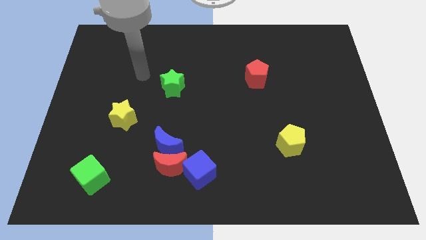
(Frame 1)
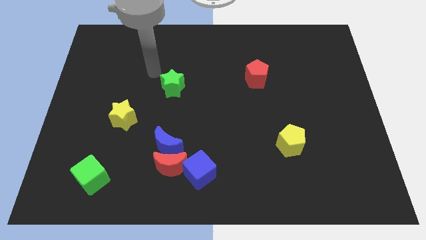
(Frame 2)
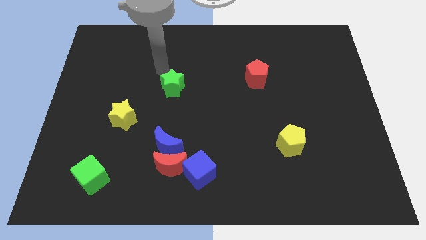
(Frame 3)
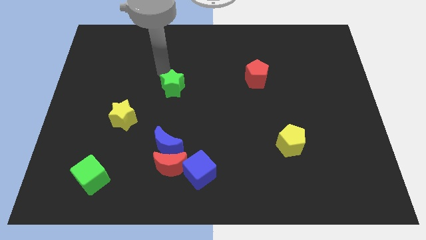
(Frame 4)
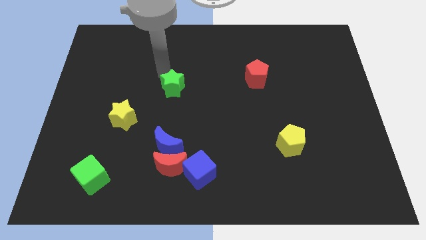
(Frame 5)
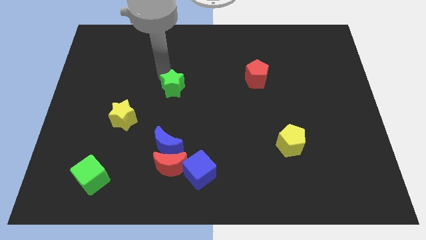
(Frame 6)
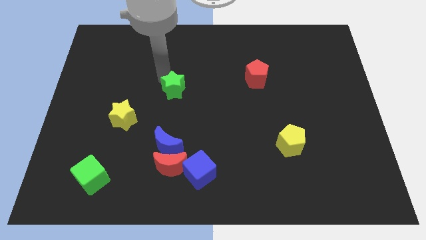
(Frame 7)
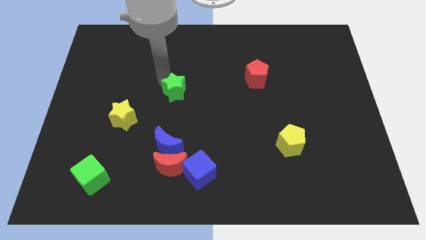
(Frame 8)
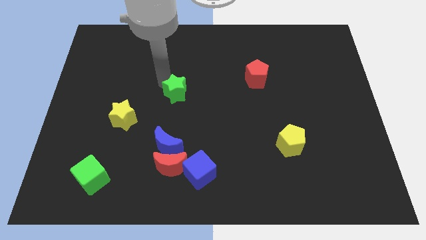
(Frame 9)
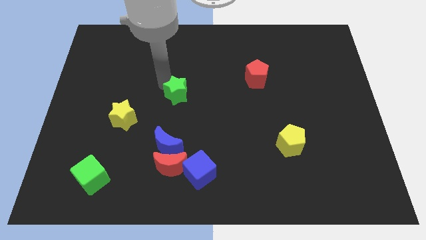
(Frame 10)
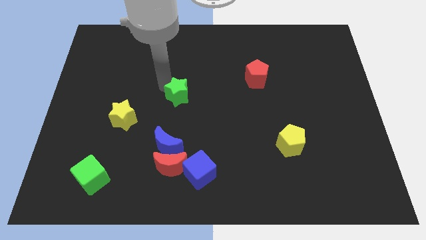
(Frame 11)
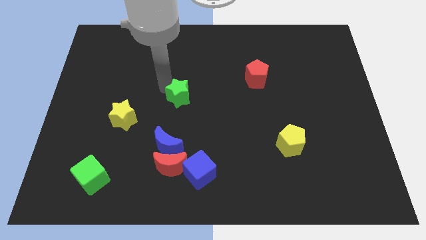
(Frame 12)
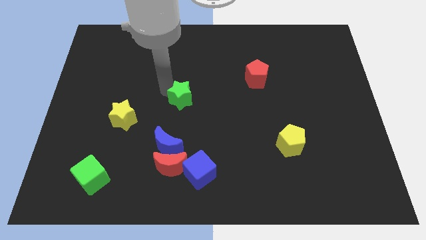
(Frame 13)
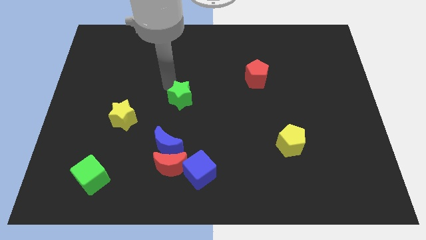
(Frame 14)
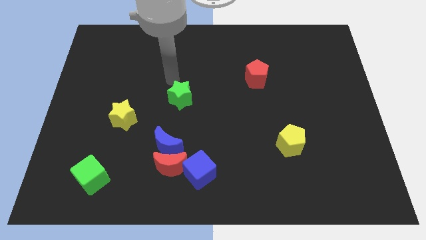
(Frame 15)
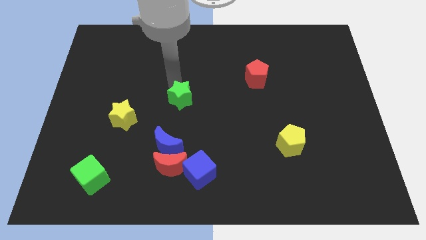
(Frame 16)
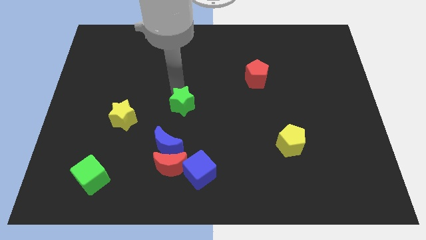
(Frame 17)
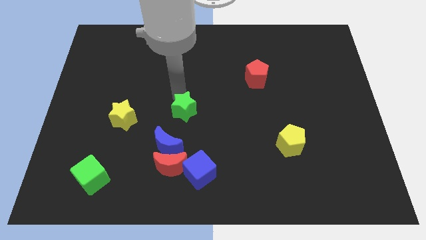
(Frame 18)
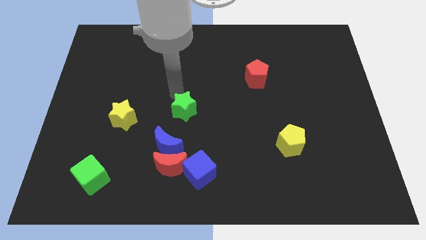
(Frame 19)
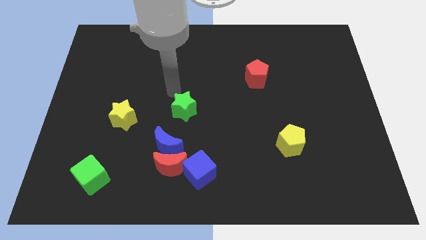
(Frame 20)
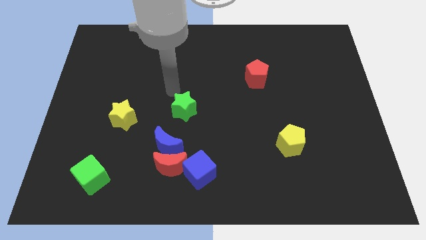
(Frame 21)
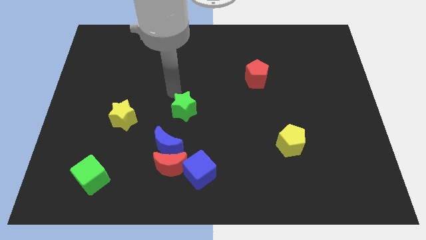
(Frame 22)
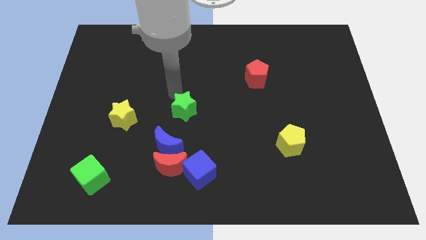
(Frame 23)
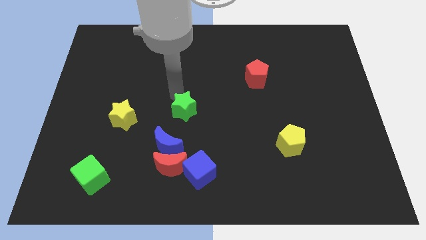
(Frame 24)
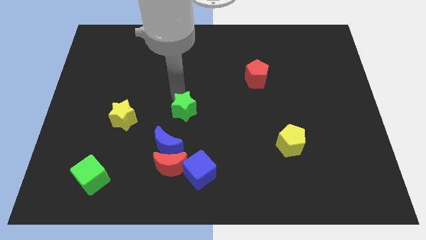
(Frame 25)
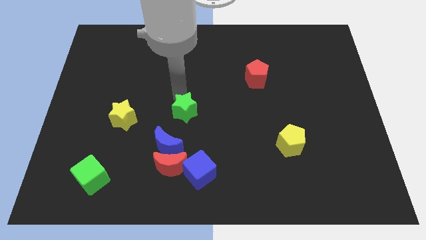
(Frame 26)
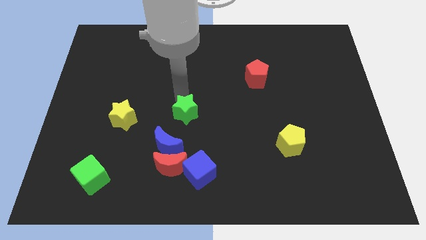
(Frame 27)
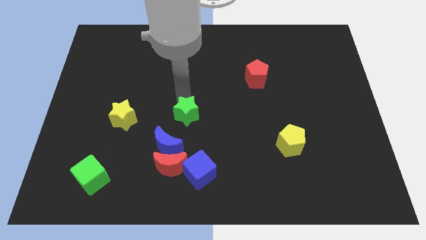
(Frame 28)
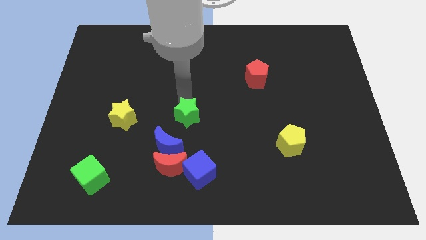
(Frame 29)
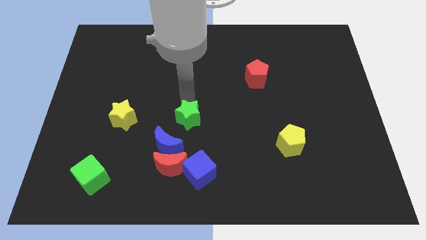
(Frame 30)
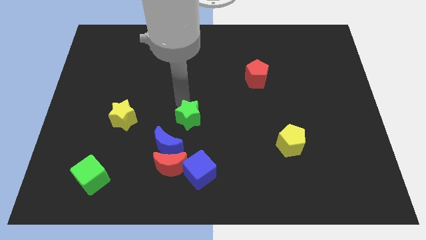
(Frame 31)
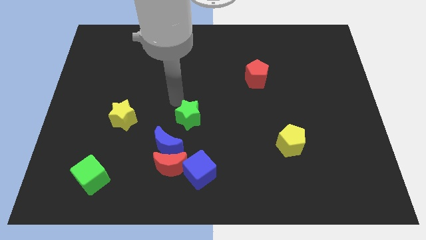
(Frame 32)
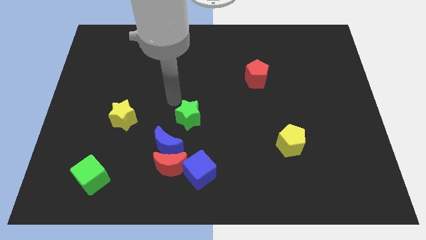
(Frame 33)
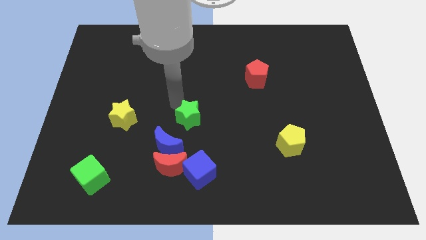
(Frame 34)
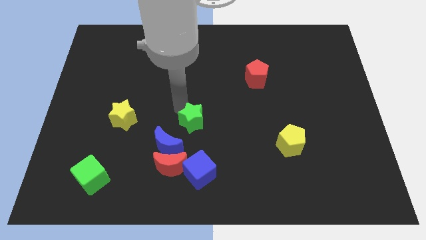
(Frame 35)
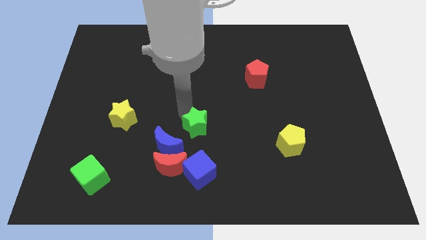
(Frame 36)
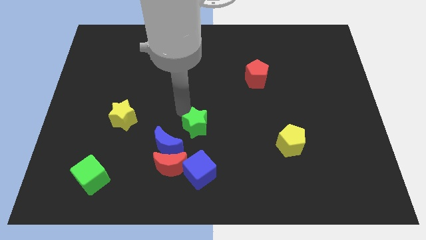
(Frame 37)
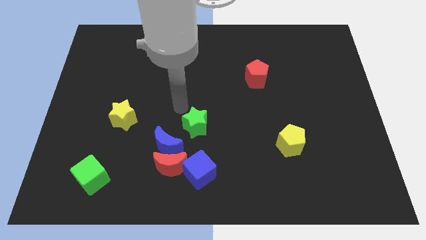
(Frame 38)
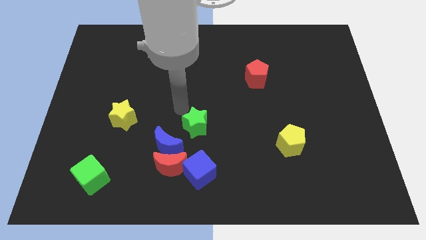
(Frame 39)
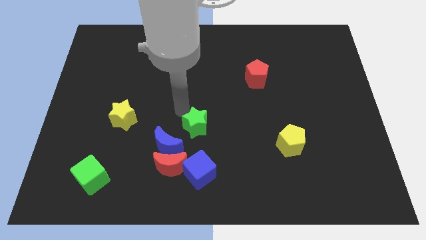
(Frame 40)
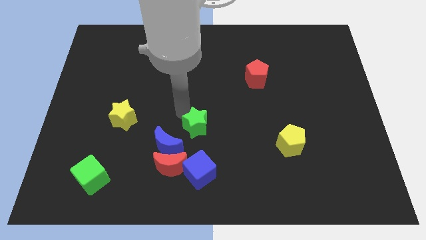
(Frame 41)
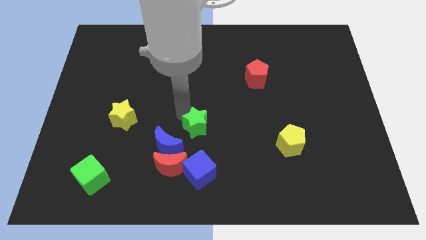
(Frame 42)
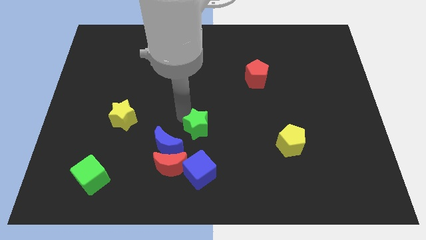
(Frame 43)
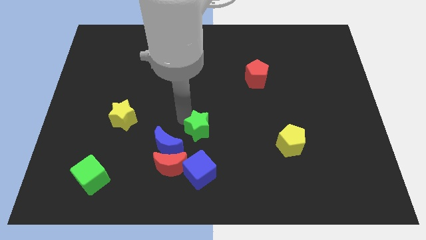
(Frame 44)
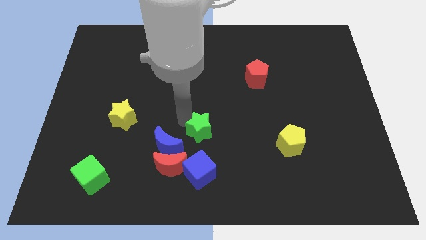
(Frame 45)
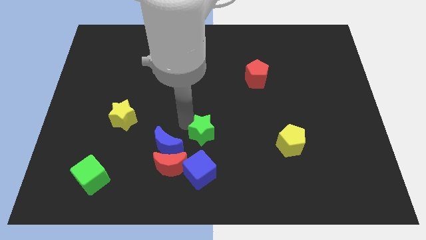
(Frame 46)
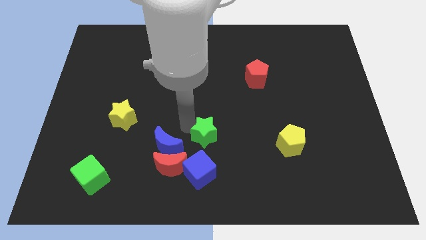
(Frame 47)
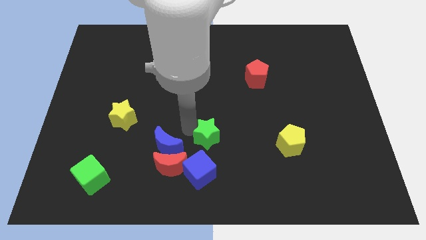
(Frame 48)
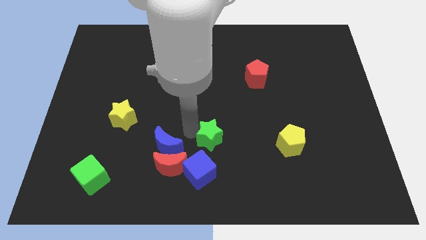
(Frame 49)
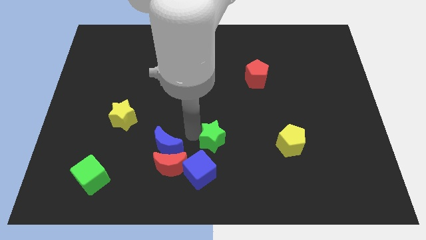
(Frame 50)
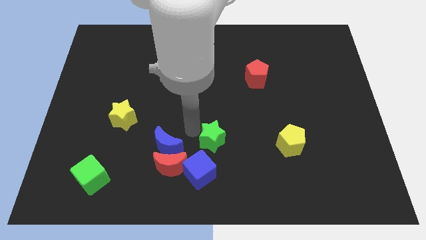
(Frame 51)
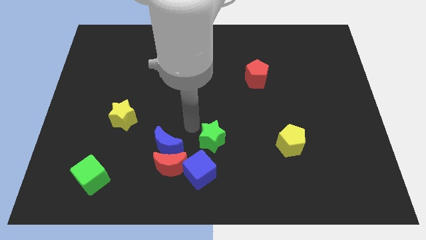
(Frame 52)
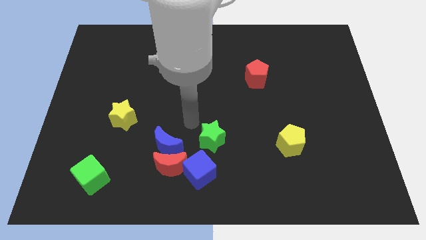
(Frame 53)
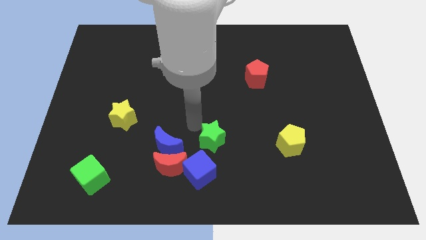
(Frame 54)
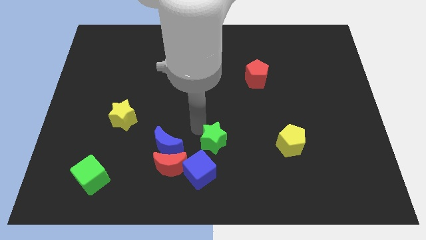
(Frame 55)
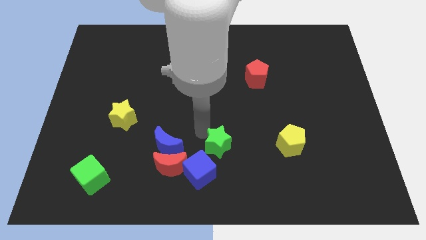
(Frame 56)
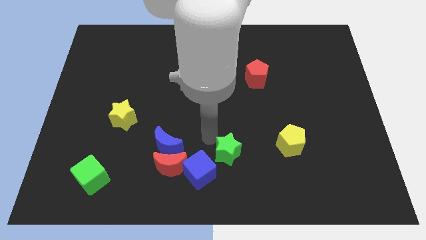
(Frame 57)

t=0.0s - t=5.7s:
put the green star to the right side of the blue cube

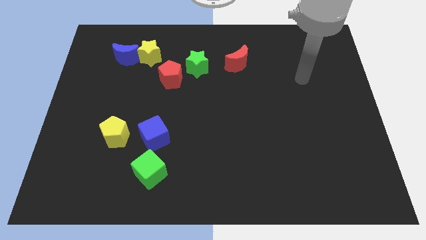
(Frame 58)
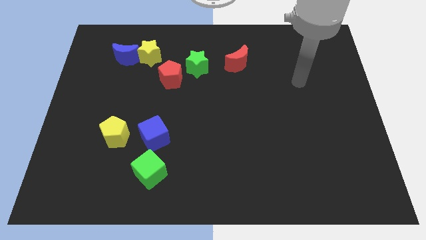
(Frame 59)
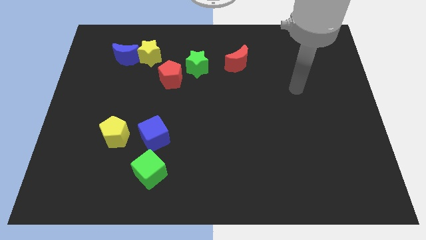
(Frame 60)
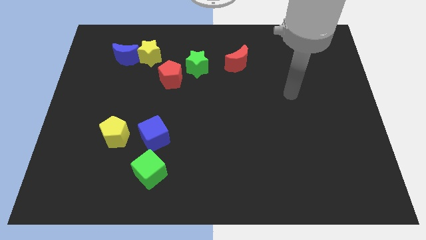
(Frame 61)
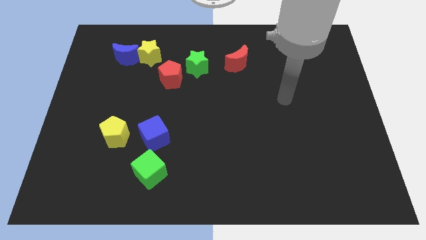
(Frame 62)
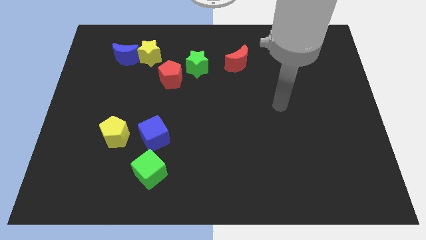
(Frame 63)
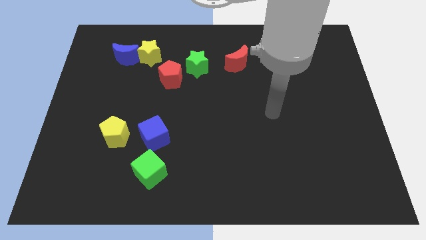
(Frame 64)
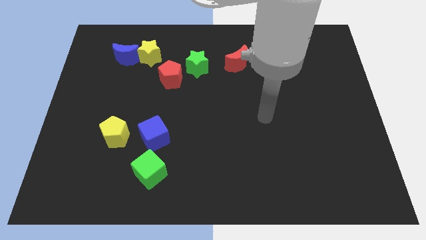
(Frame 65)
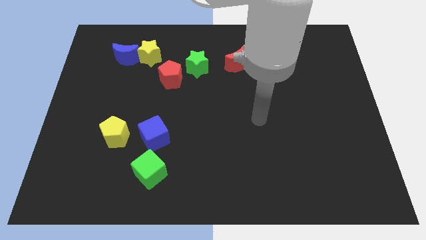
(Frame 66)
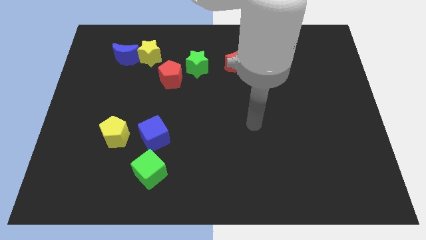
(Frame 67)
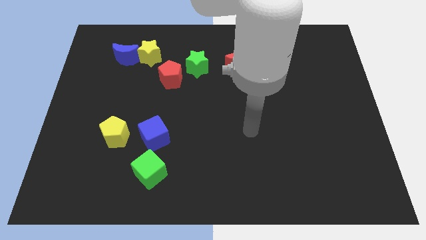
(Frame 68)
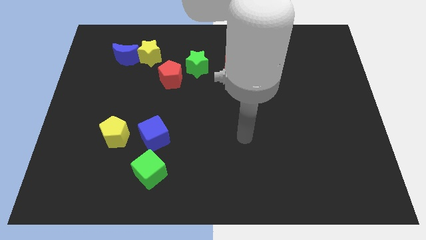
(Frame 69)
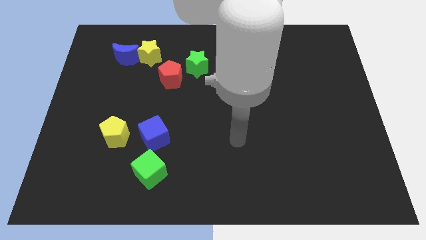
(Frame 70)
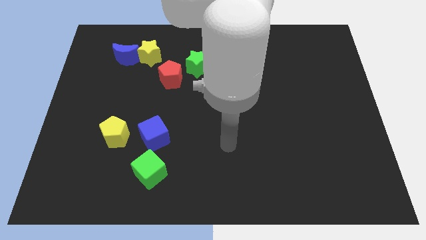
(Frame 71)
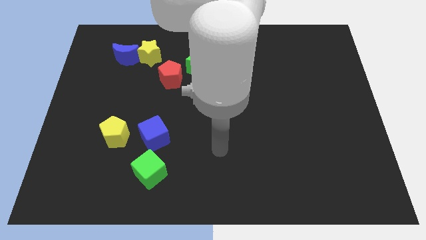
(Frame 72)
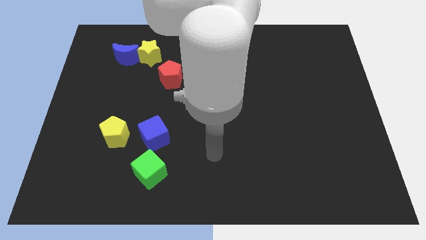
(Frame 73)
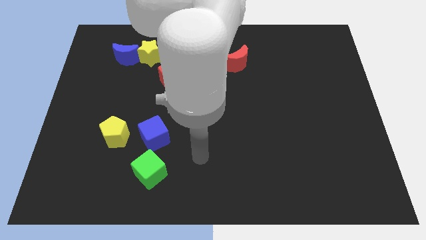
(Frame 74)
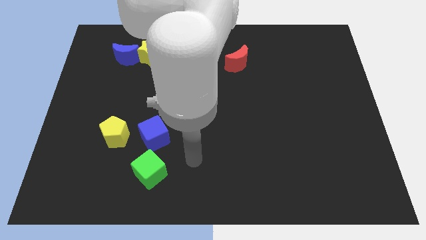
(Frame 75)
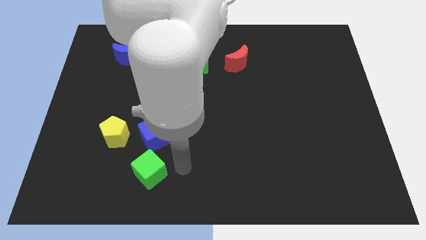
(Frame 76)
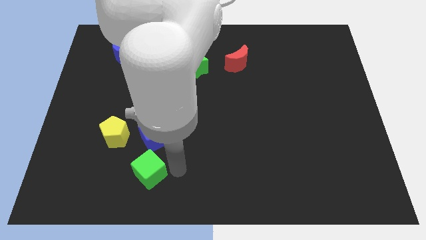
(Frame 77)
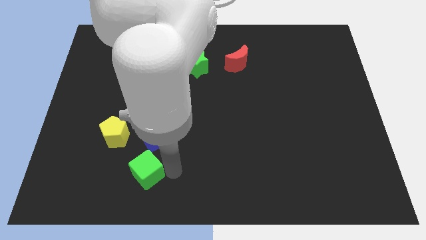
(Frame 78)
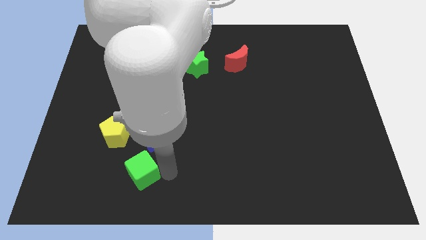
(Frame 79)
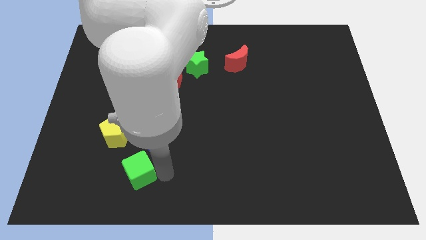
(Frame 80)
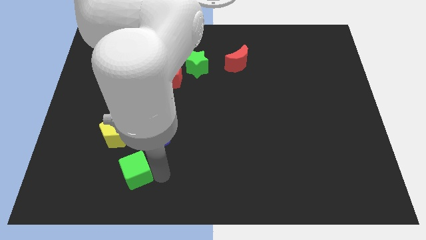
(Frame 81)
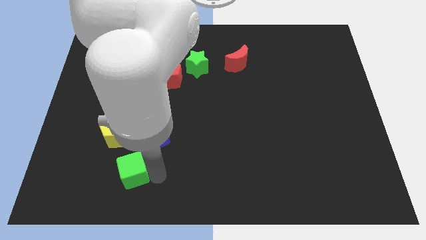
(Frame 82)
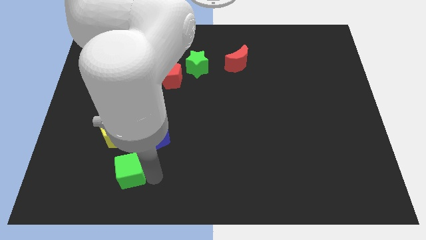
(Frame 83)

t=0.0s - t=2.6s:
move the green cube to the bottom of the yellow pentagon

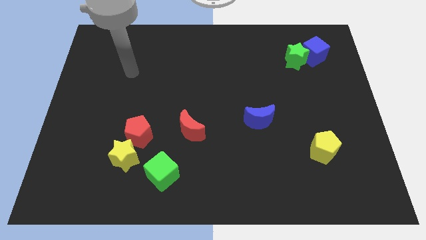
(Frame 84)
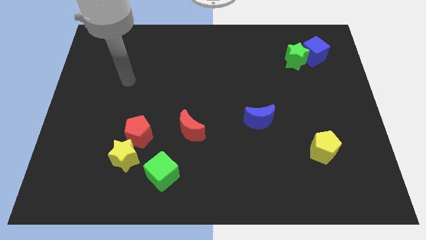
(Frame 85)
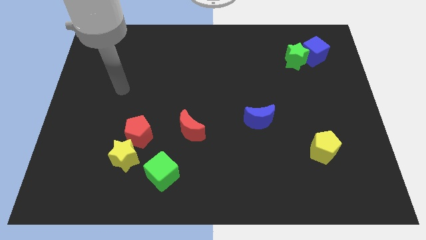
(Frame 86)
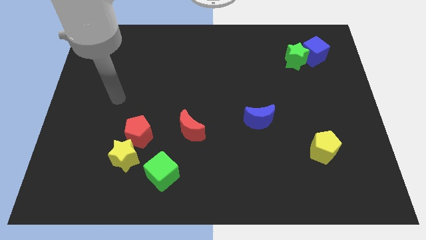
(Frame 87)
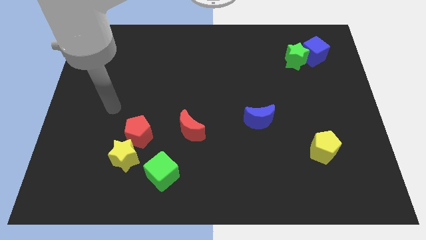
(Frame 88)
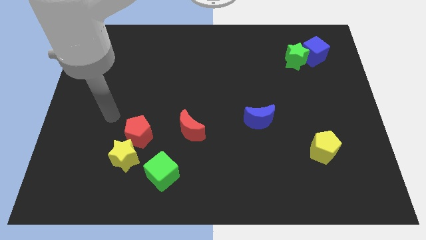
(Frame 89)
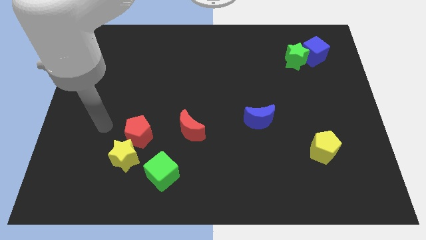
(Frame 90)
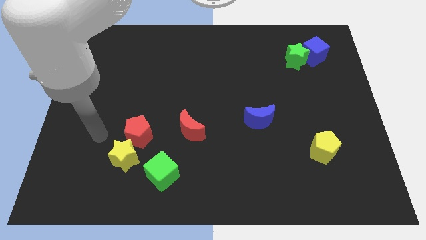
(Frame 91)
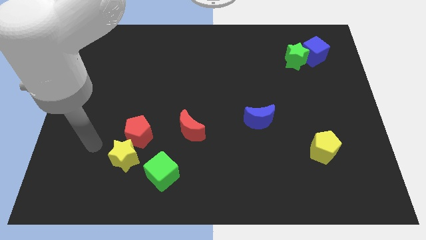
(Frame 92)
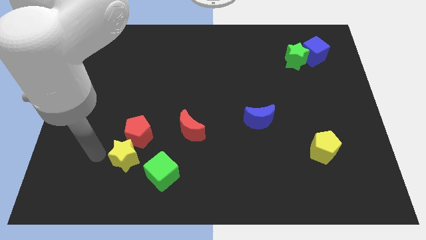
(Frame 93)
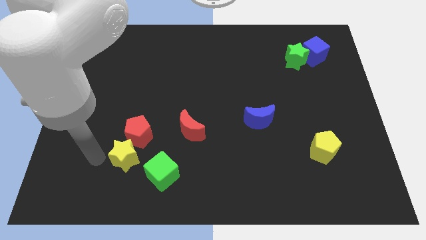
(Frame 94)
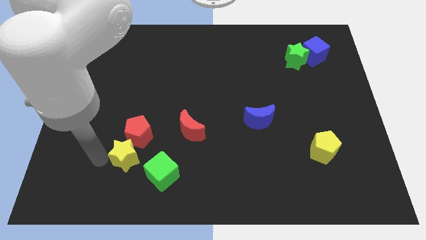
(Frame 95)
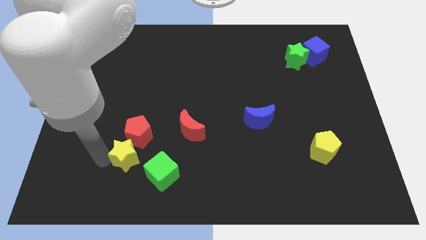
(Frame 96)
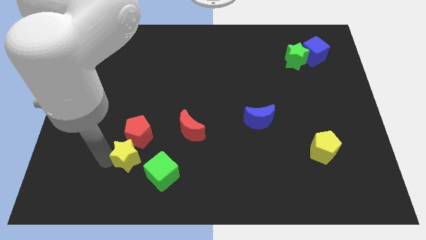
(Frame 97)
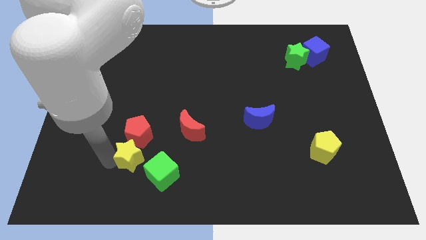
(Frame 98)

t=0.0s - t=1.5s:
push the yellow star to the bottom right of the red pentagon
